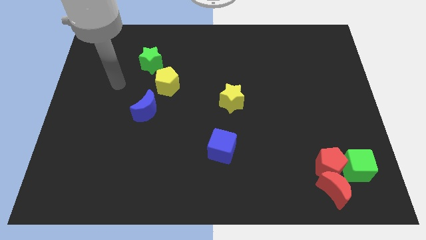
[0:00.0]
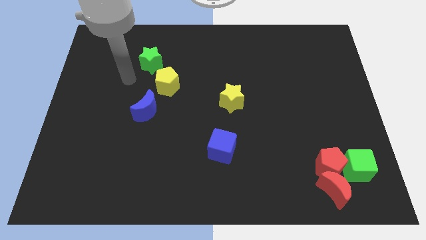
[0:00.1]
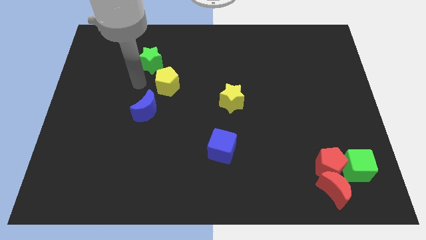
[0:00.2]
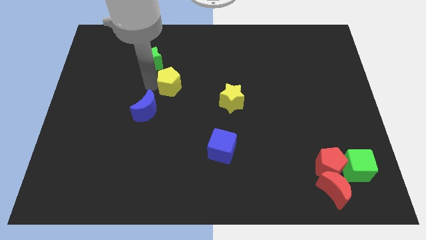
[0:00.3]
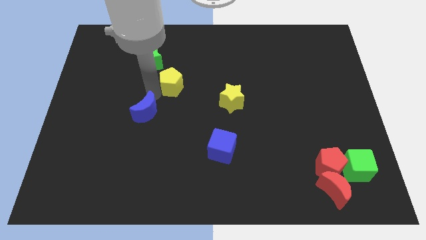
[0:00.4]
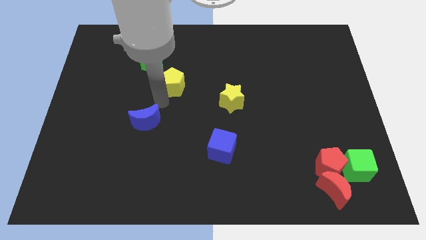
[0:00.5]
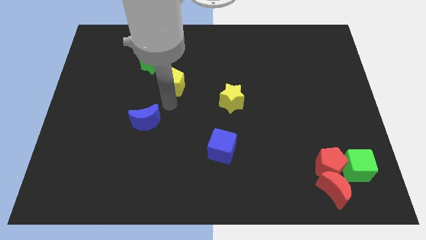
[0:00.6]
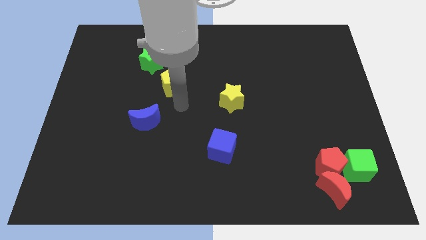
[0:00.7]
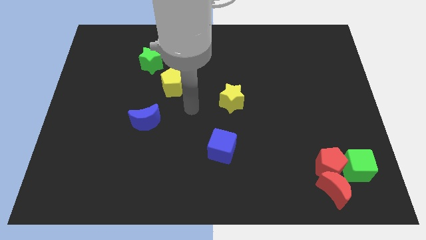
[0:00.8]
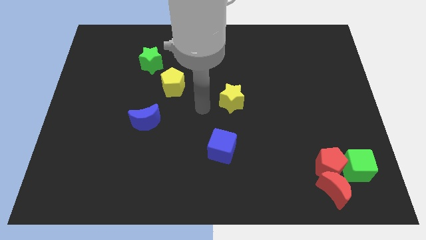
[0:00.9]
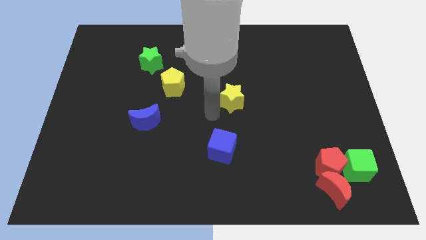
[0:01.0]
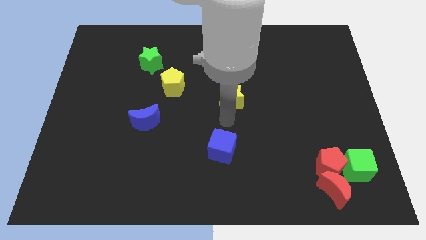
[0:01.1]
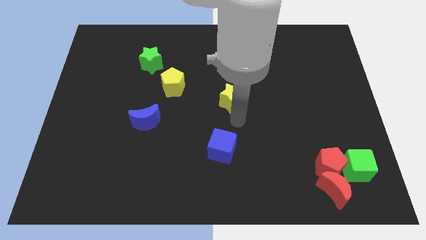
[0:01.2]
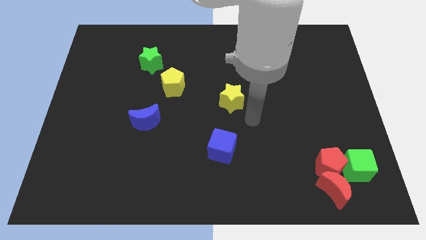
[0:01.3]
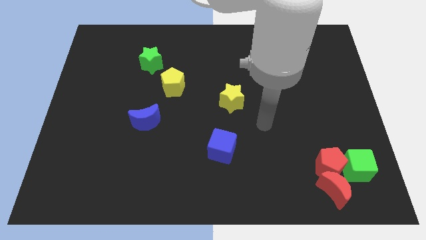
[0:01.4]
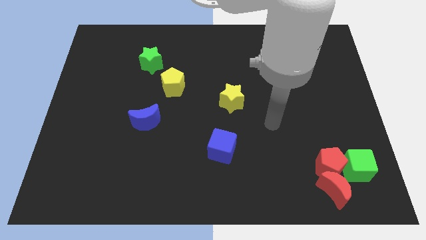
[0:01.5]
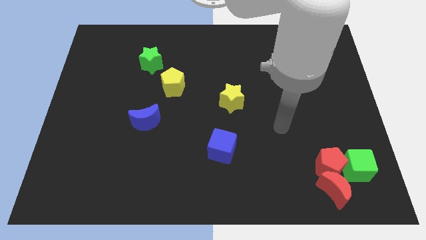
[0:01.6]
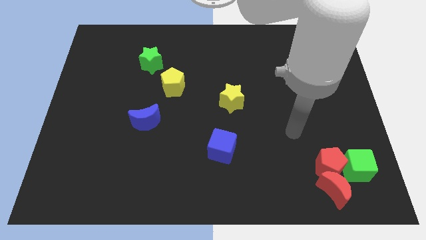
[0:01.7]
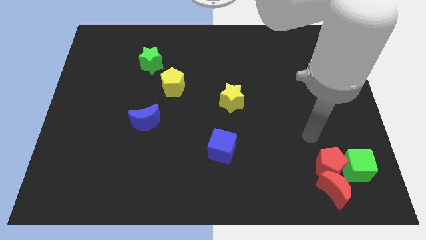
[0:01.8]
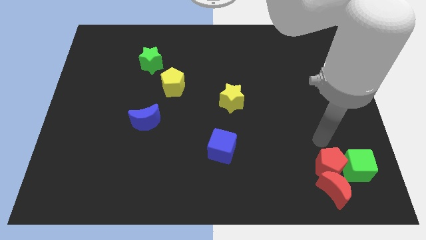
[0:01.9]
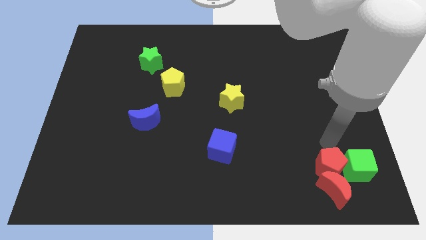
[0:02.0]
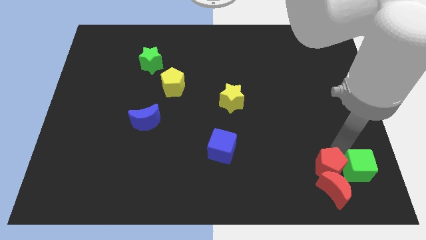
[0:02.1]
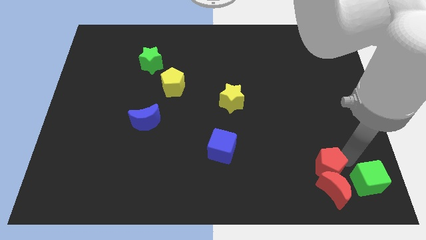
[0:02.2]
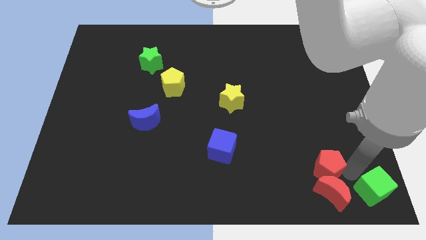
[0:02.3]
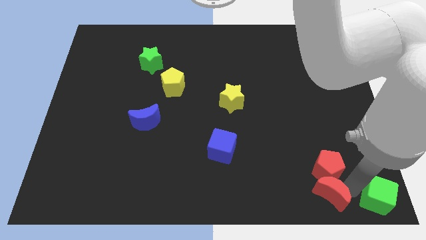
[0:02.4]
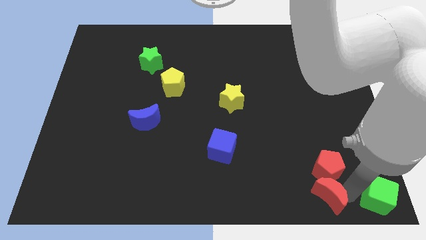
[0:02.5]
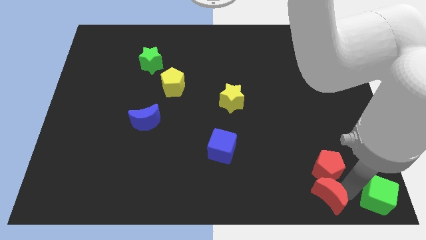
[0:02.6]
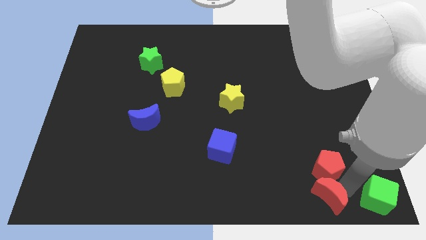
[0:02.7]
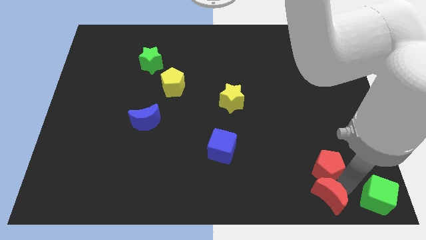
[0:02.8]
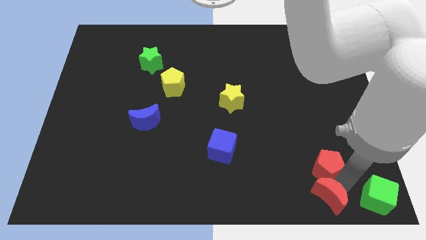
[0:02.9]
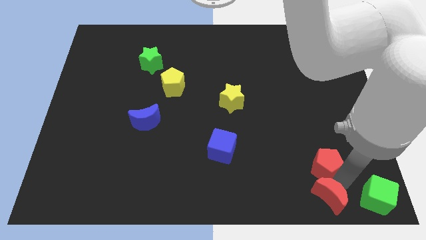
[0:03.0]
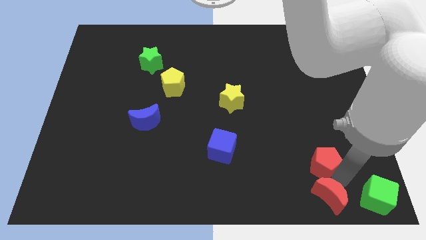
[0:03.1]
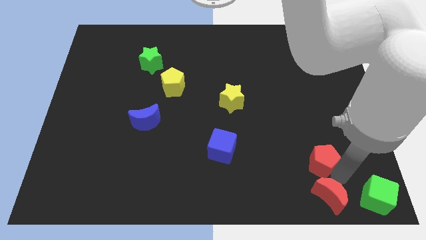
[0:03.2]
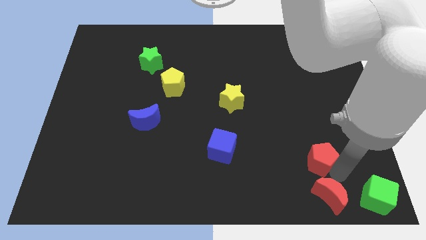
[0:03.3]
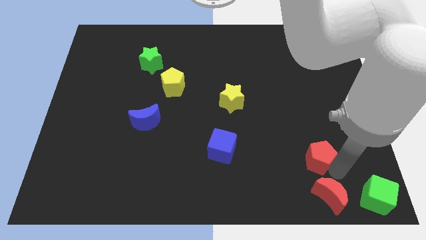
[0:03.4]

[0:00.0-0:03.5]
move the red pentagon away from the red moon and green cube

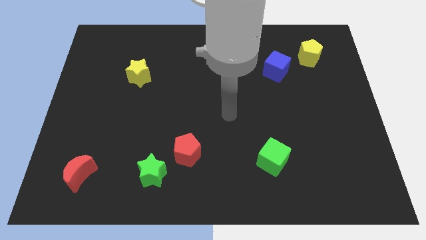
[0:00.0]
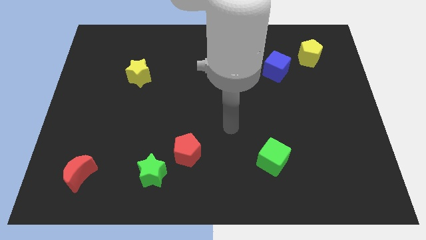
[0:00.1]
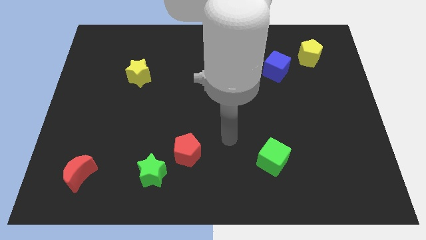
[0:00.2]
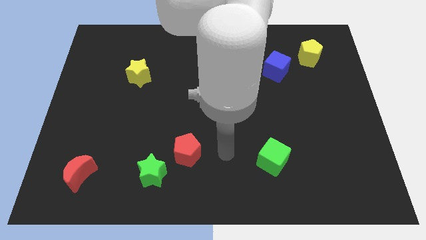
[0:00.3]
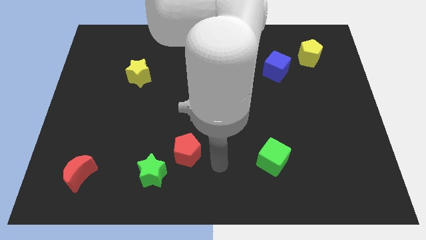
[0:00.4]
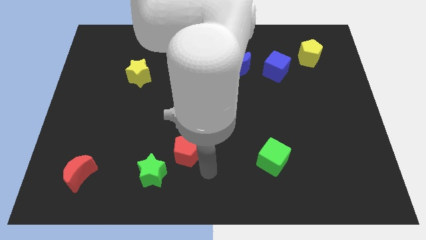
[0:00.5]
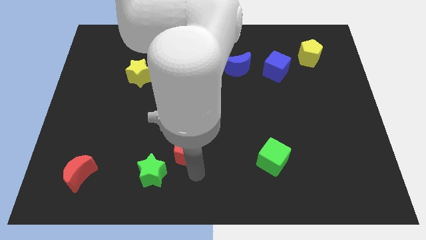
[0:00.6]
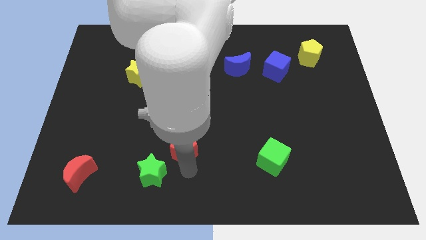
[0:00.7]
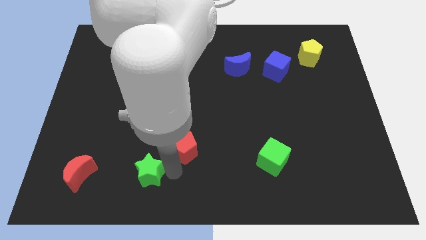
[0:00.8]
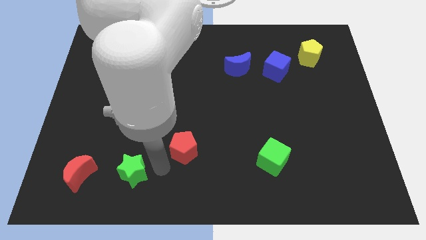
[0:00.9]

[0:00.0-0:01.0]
move the red pentagon away from the green star

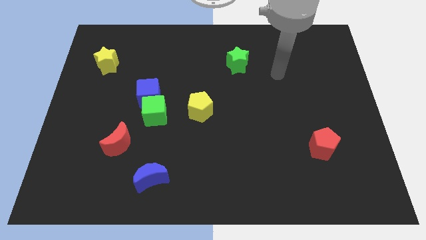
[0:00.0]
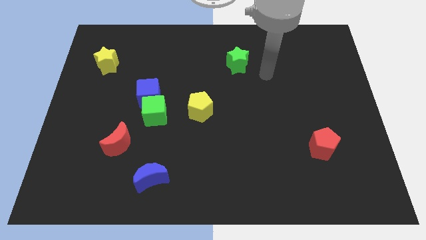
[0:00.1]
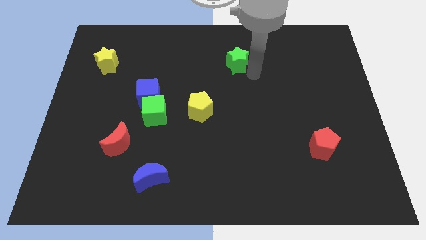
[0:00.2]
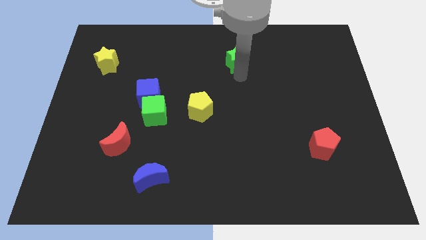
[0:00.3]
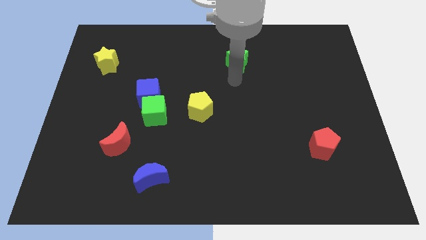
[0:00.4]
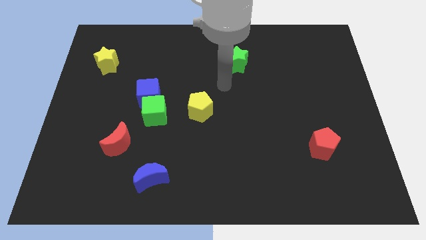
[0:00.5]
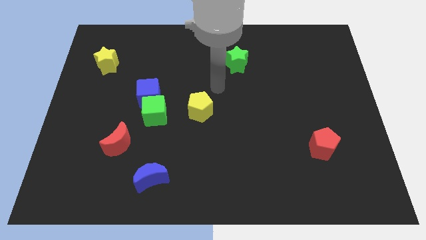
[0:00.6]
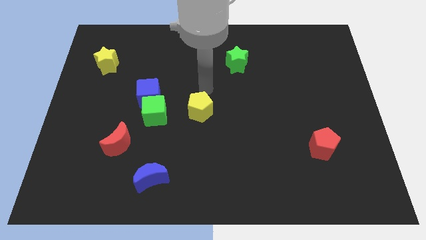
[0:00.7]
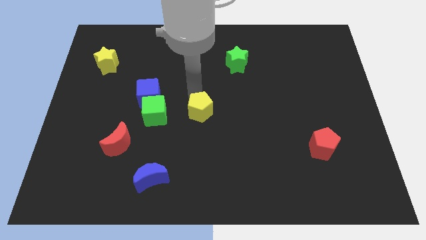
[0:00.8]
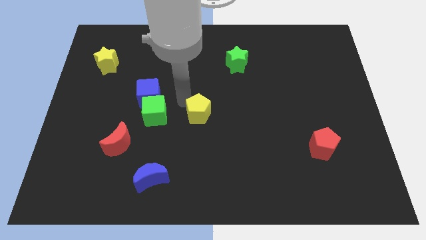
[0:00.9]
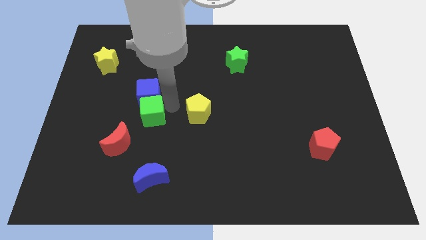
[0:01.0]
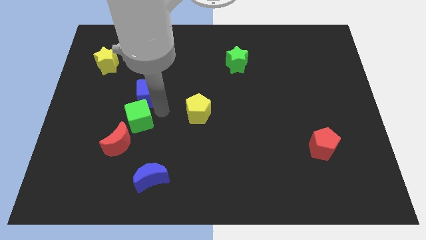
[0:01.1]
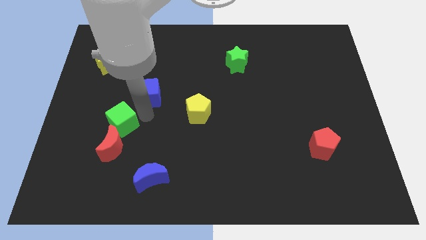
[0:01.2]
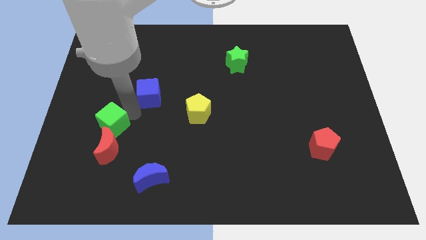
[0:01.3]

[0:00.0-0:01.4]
pull the blue cube apart from the green cube

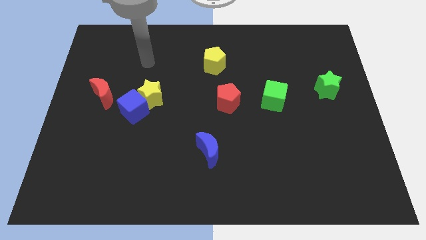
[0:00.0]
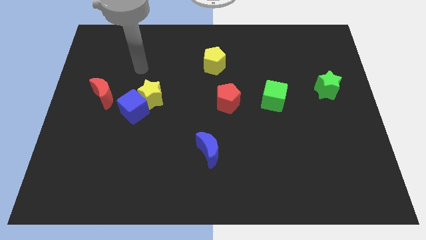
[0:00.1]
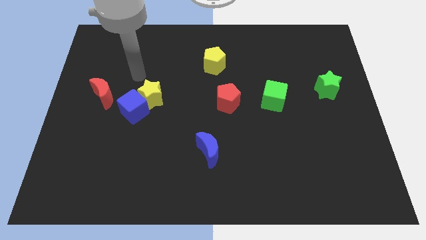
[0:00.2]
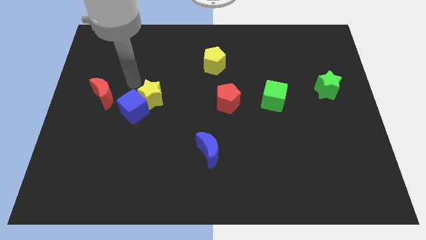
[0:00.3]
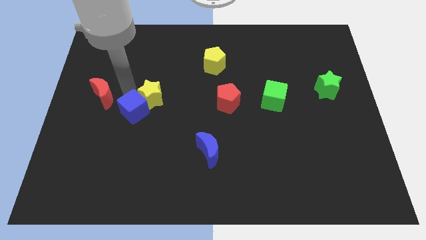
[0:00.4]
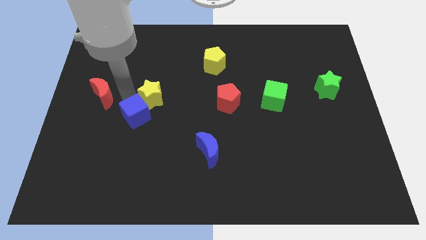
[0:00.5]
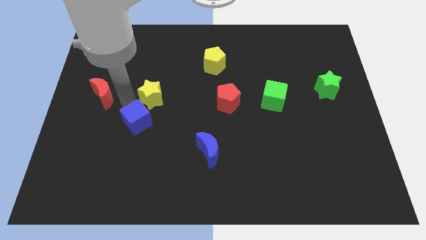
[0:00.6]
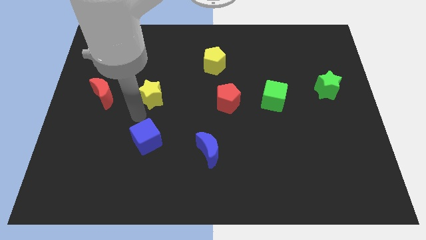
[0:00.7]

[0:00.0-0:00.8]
pull the yellow star apart from the blue cube

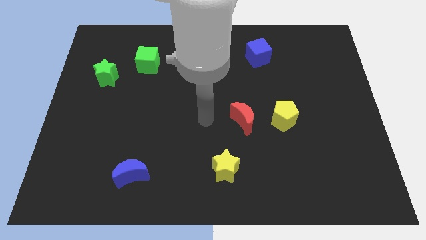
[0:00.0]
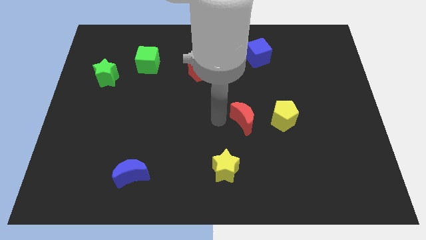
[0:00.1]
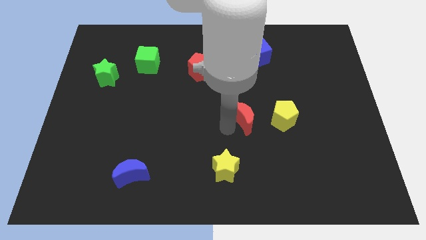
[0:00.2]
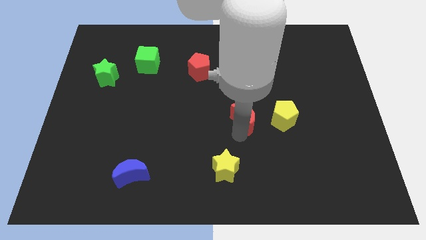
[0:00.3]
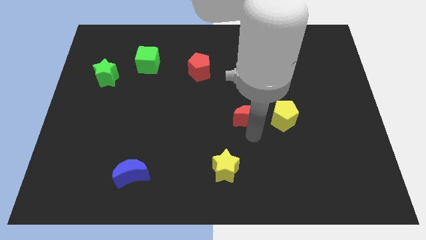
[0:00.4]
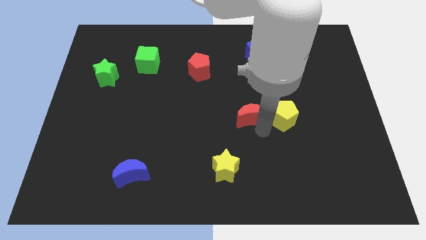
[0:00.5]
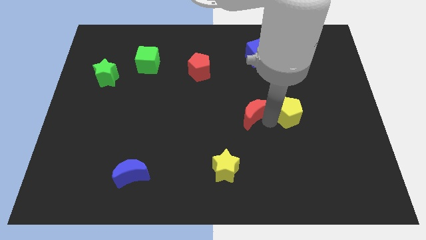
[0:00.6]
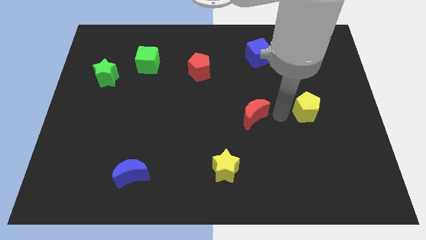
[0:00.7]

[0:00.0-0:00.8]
pull the red moon apart from the yellow pentagon

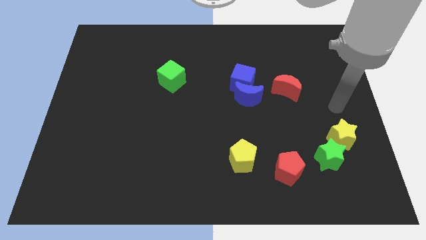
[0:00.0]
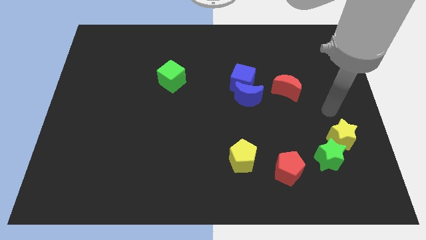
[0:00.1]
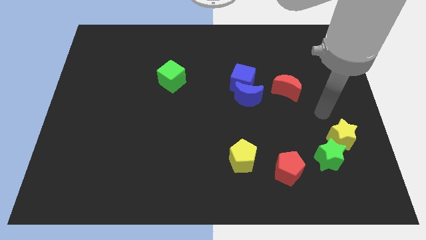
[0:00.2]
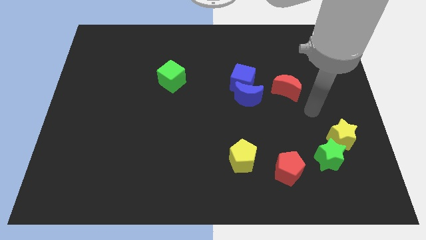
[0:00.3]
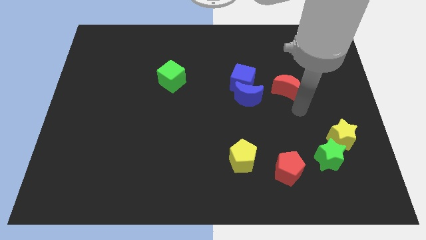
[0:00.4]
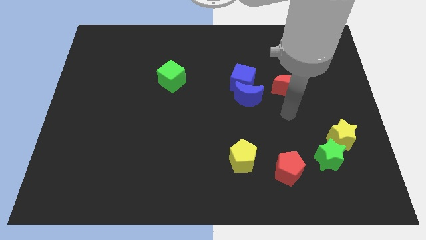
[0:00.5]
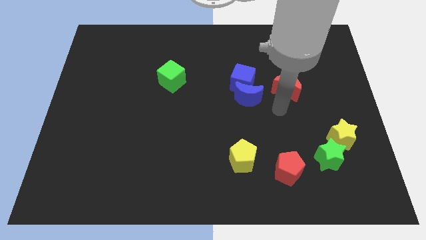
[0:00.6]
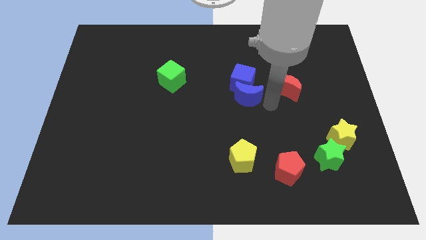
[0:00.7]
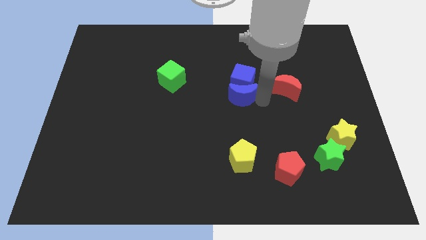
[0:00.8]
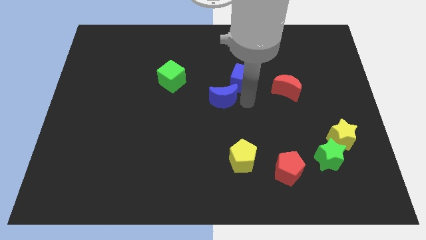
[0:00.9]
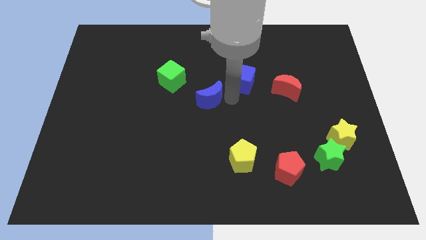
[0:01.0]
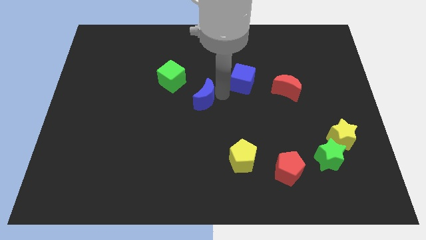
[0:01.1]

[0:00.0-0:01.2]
separate the blue cube from the blue moon

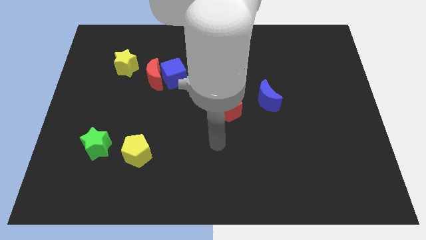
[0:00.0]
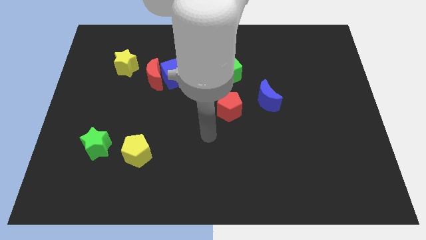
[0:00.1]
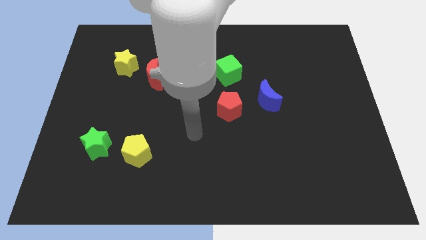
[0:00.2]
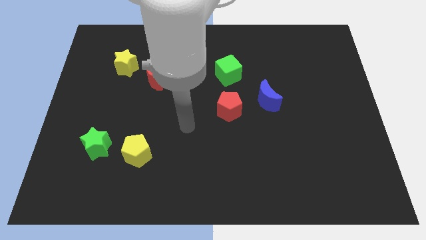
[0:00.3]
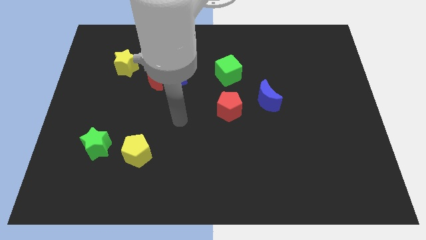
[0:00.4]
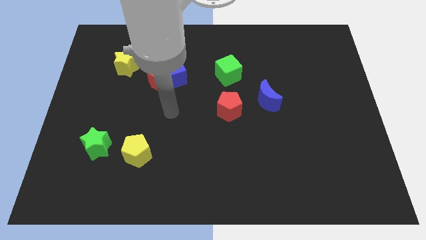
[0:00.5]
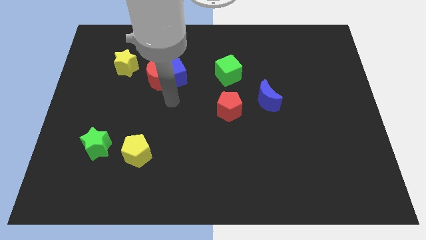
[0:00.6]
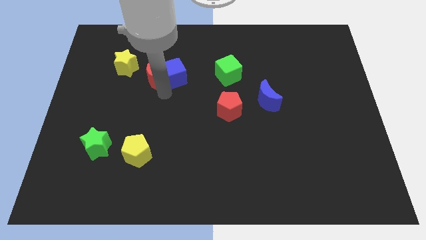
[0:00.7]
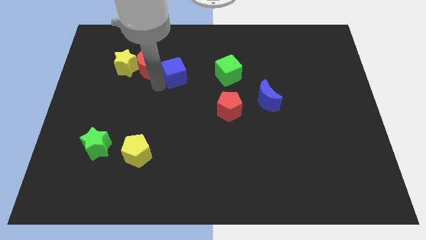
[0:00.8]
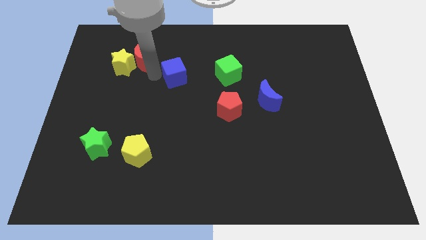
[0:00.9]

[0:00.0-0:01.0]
pull the blue cube apart from the red moon
